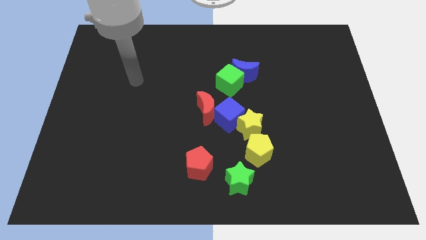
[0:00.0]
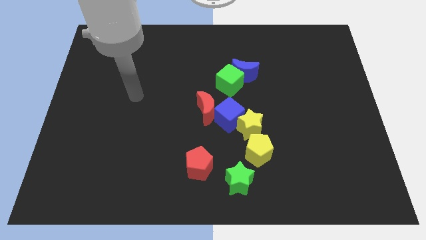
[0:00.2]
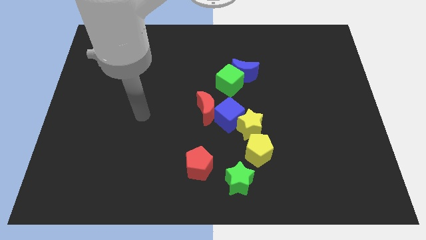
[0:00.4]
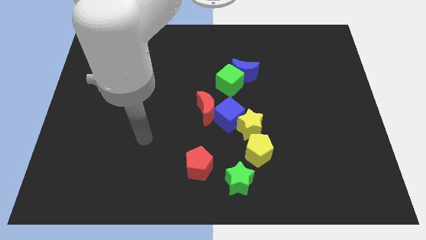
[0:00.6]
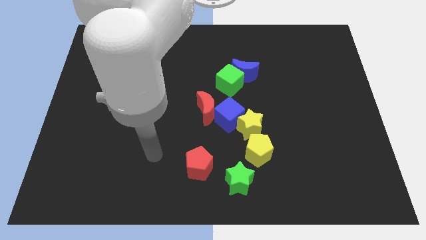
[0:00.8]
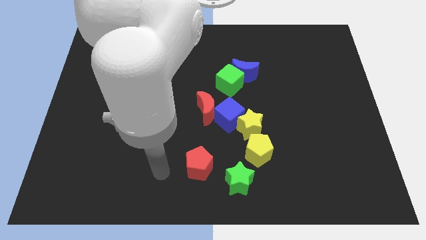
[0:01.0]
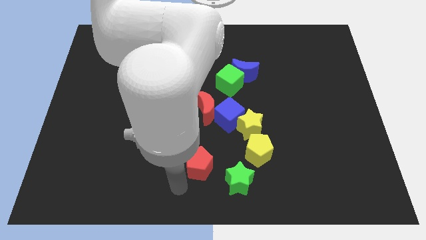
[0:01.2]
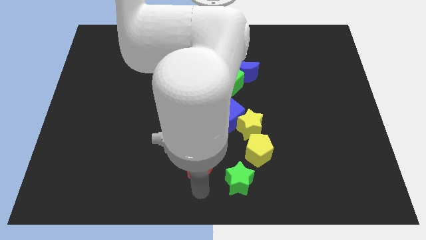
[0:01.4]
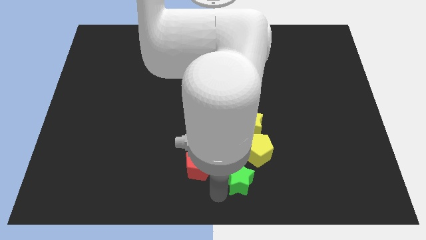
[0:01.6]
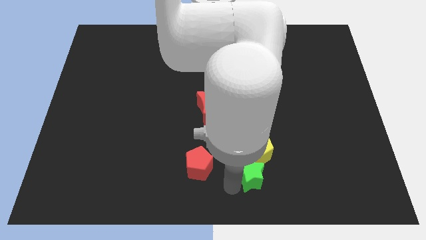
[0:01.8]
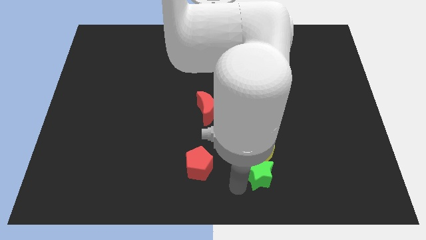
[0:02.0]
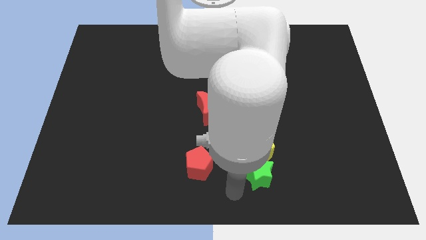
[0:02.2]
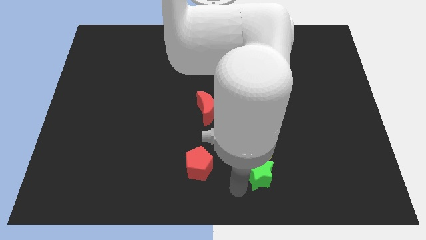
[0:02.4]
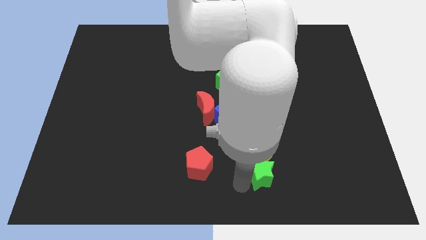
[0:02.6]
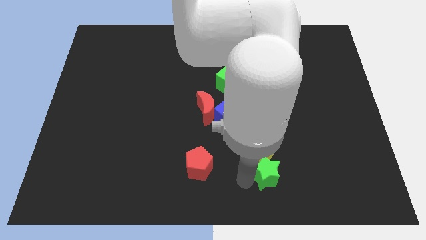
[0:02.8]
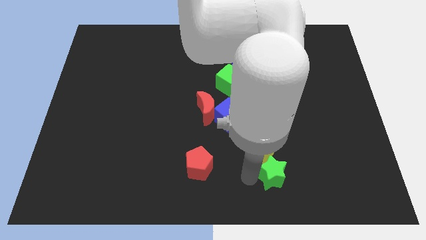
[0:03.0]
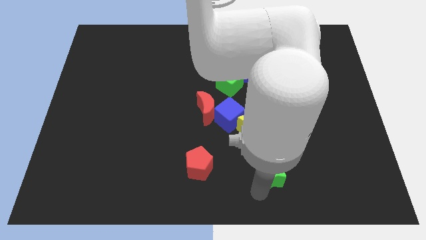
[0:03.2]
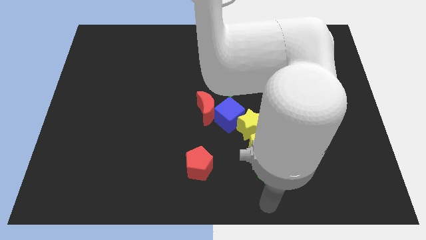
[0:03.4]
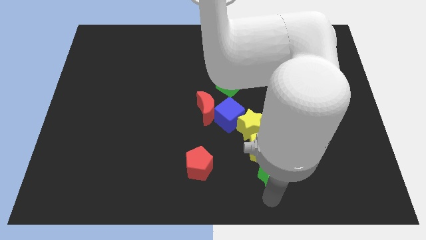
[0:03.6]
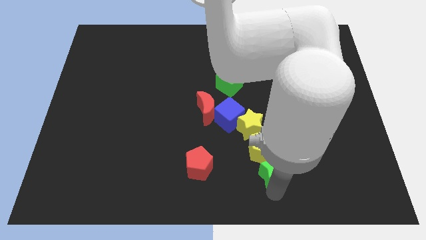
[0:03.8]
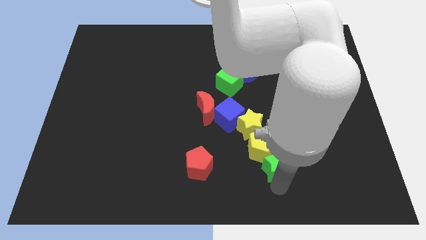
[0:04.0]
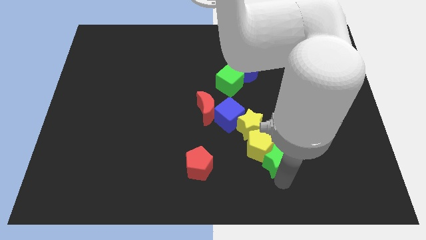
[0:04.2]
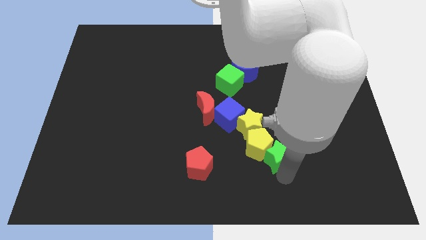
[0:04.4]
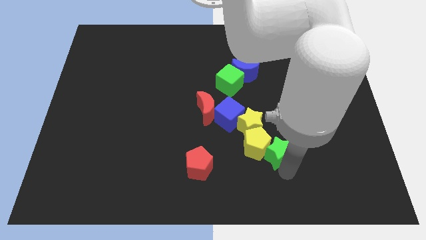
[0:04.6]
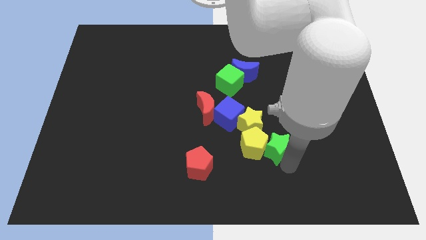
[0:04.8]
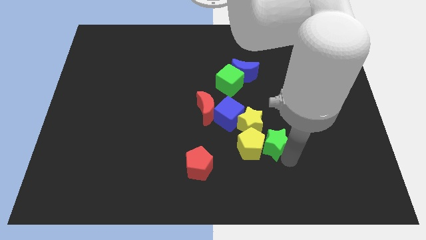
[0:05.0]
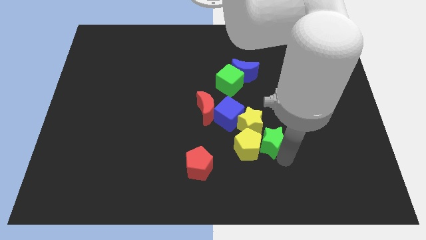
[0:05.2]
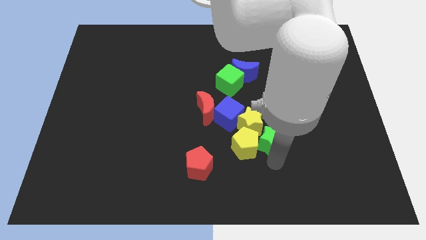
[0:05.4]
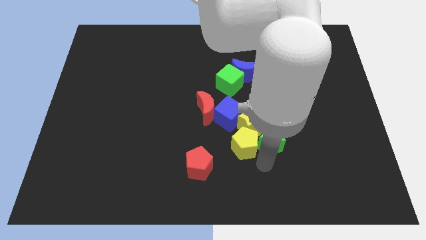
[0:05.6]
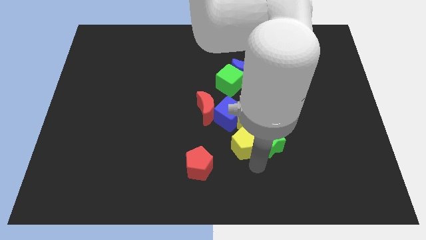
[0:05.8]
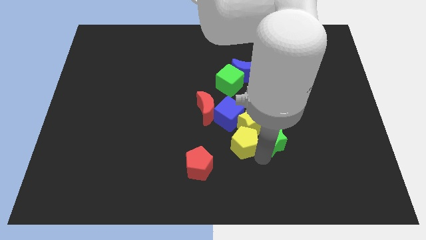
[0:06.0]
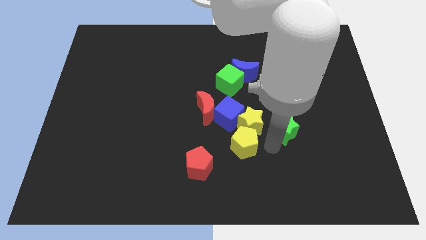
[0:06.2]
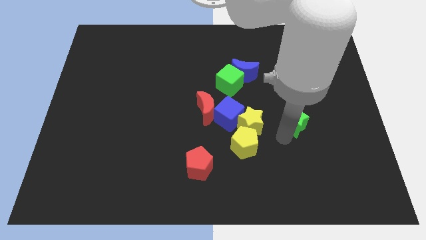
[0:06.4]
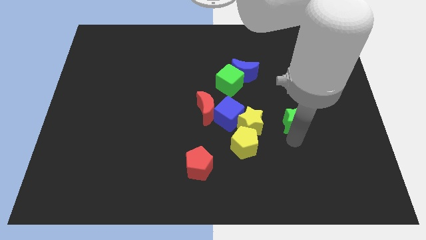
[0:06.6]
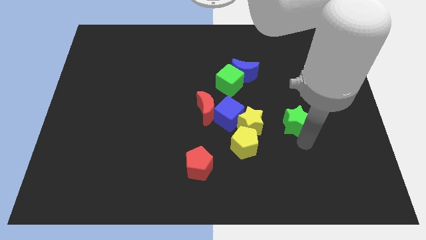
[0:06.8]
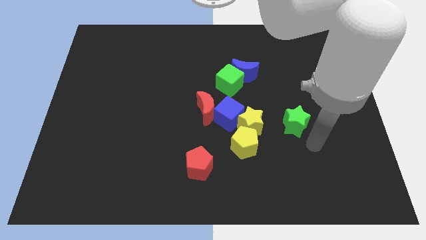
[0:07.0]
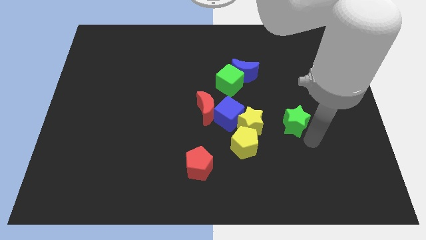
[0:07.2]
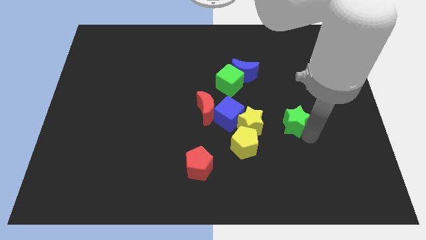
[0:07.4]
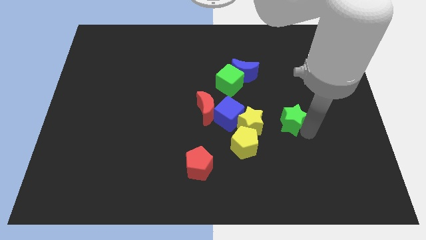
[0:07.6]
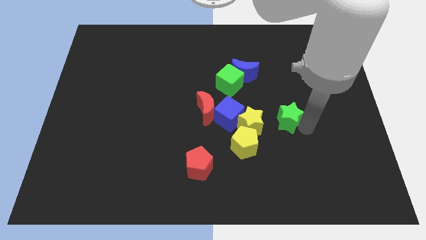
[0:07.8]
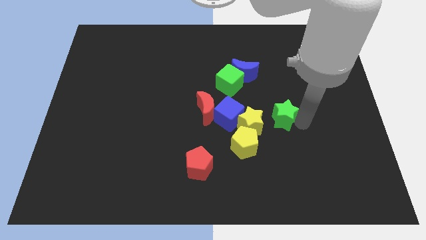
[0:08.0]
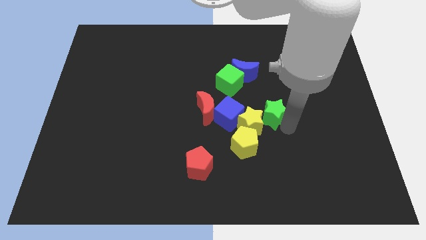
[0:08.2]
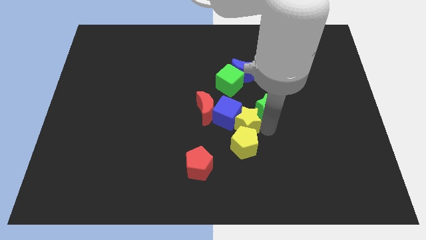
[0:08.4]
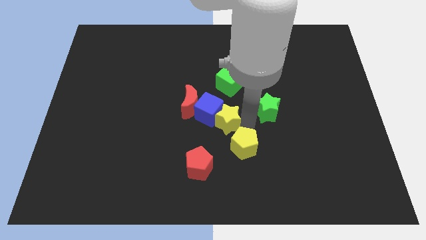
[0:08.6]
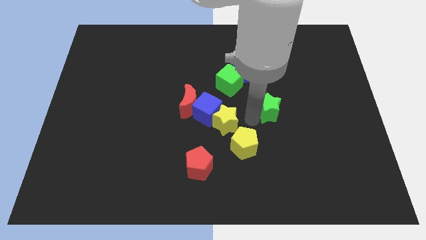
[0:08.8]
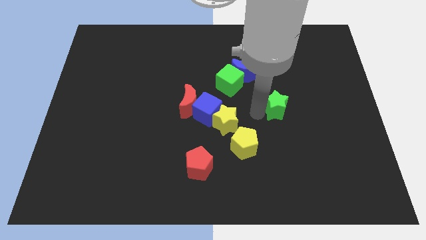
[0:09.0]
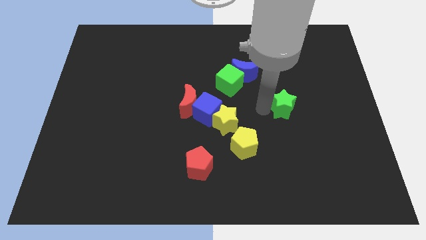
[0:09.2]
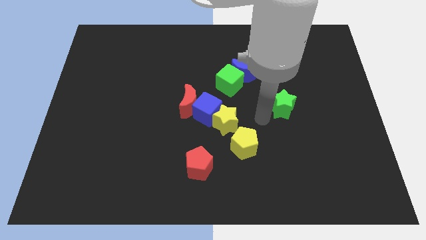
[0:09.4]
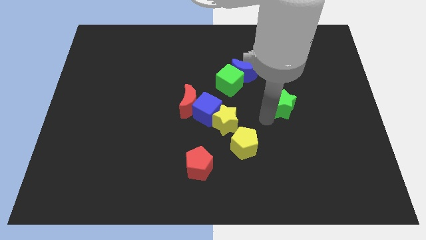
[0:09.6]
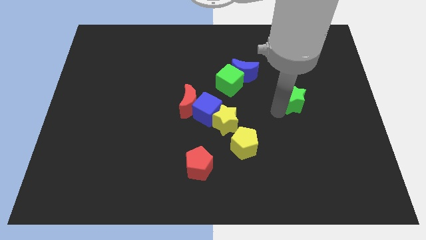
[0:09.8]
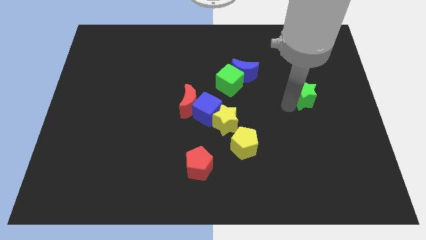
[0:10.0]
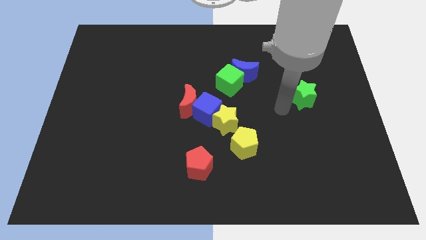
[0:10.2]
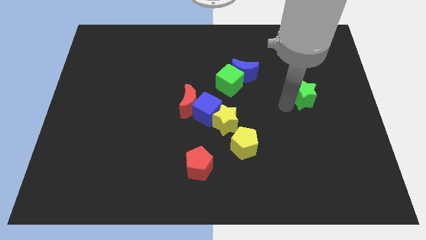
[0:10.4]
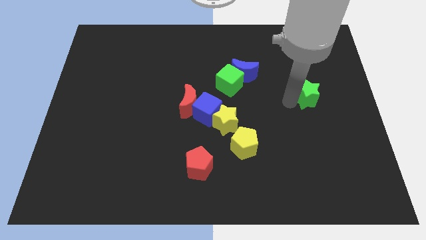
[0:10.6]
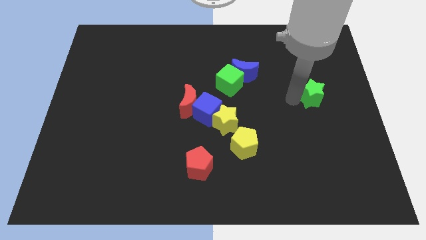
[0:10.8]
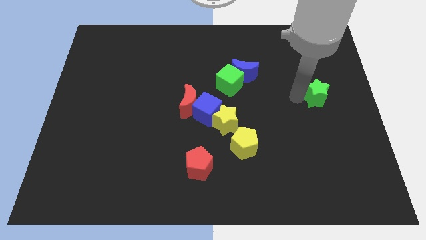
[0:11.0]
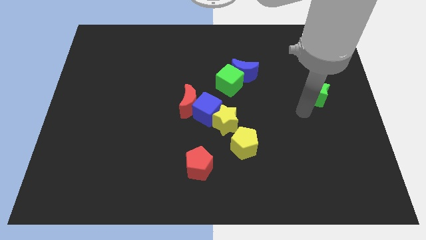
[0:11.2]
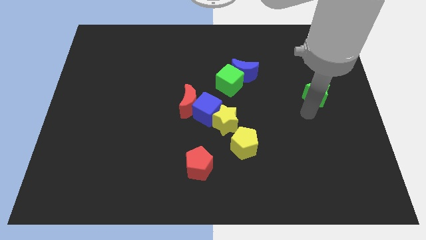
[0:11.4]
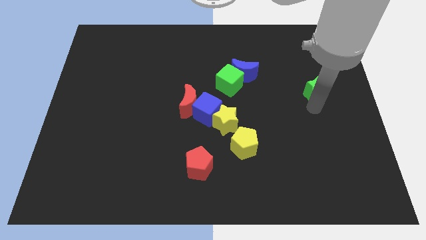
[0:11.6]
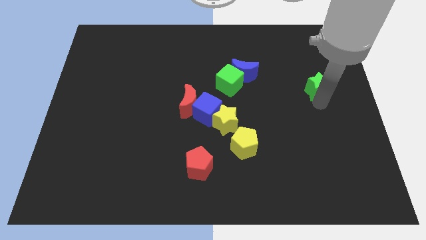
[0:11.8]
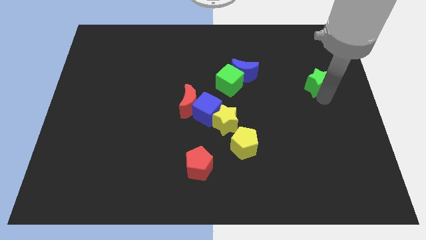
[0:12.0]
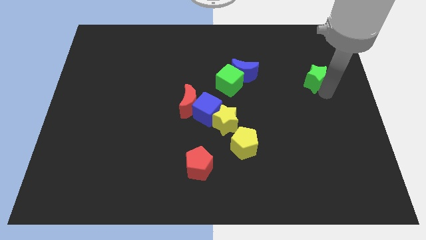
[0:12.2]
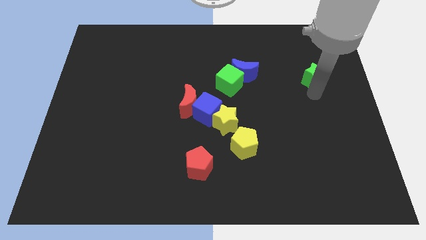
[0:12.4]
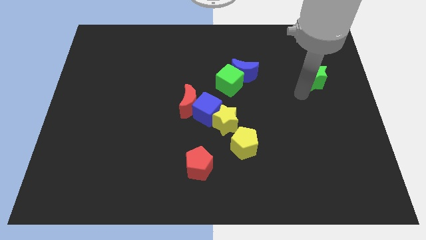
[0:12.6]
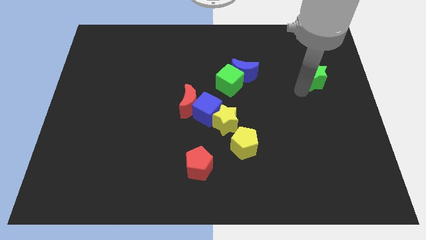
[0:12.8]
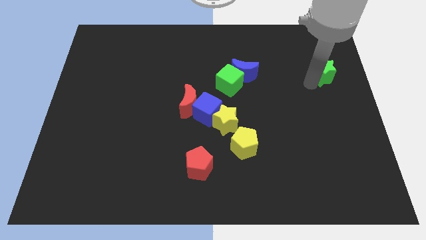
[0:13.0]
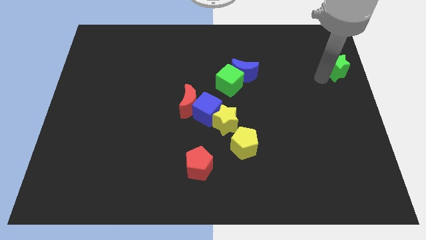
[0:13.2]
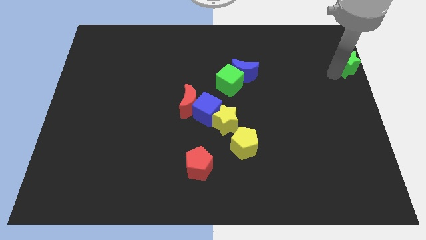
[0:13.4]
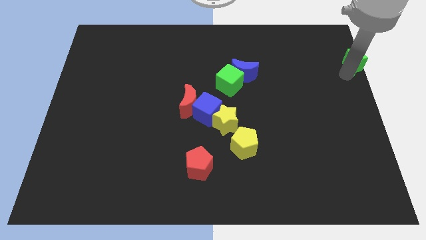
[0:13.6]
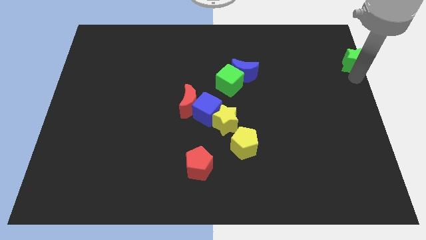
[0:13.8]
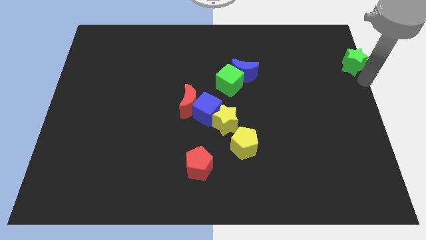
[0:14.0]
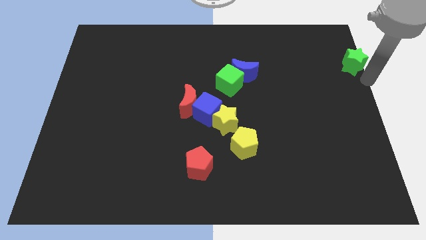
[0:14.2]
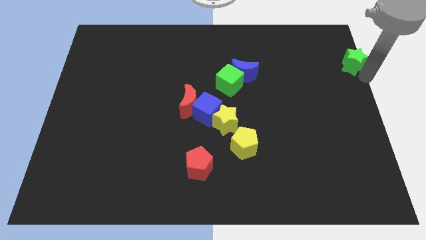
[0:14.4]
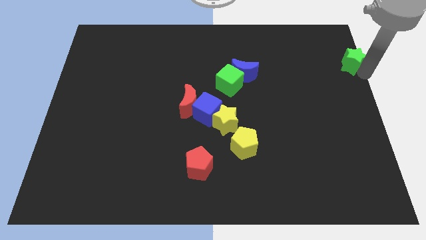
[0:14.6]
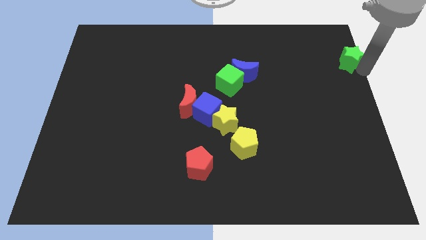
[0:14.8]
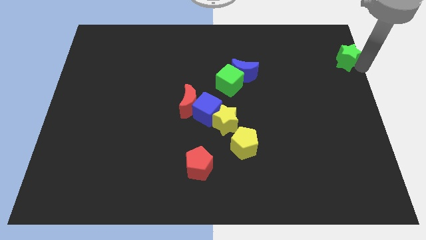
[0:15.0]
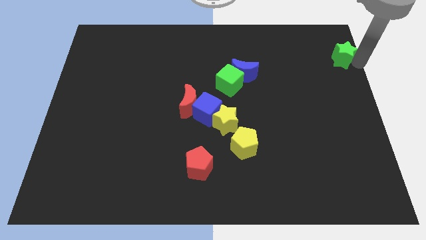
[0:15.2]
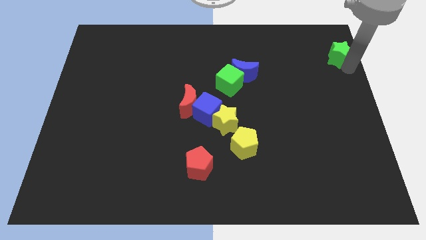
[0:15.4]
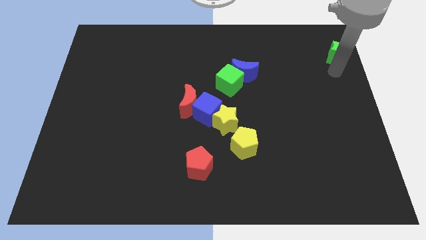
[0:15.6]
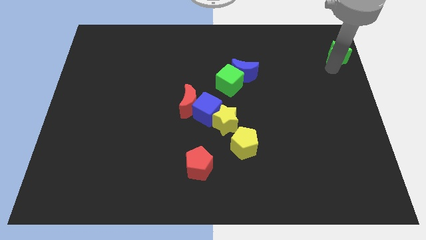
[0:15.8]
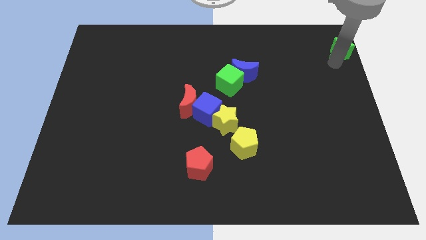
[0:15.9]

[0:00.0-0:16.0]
put the green star to the top right
